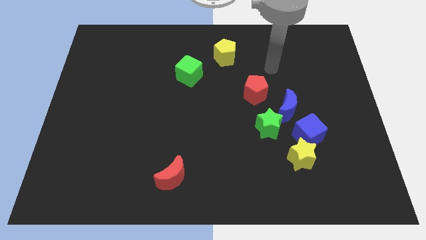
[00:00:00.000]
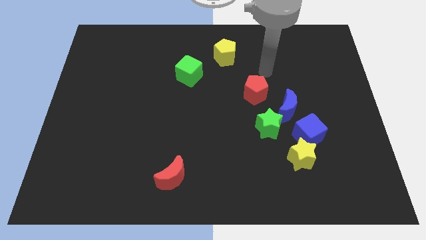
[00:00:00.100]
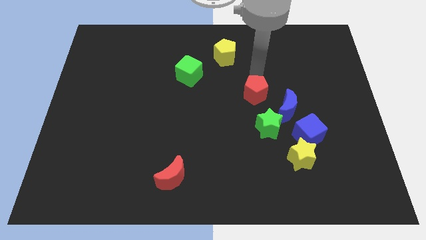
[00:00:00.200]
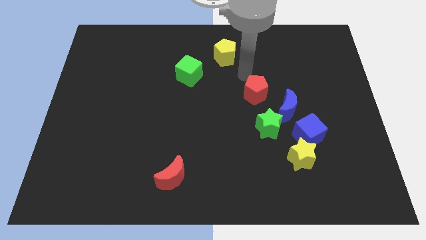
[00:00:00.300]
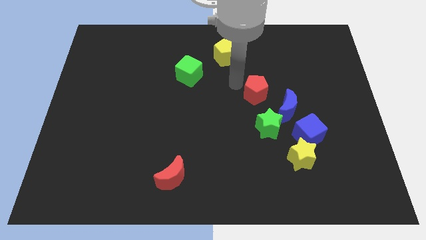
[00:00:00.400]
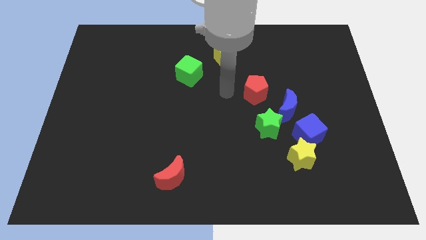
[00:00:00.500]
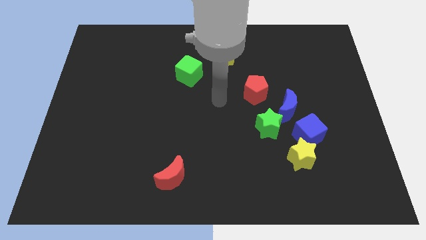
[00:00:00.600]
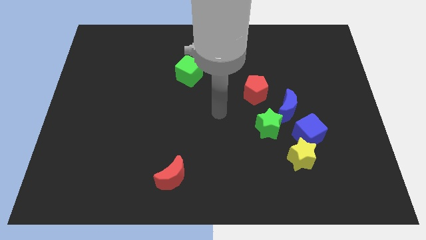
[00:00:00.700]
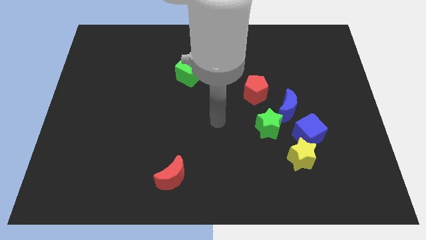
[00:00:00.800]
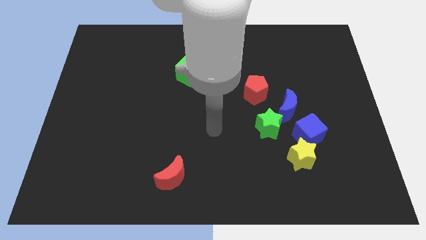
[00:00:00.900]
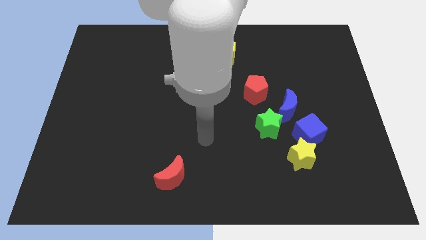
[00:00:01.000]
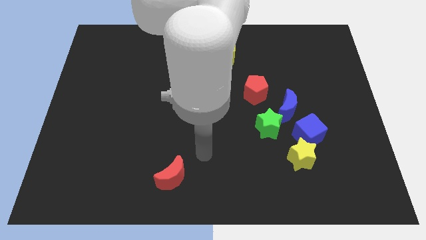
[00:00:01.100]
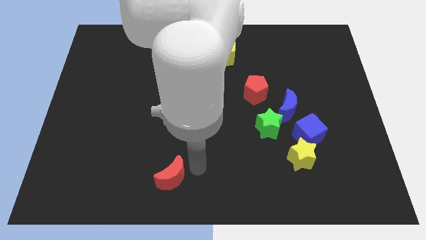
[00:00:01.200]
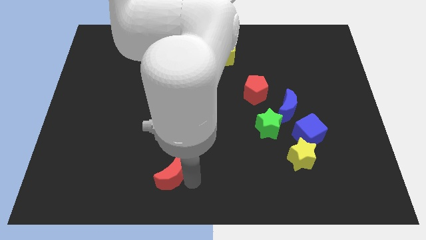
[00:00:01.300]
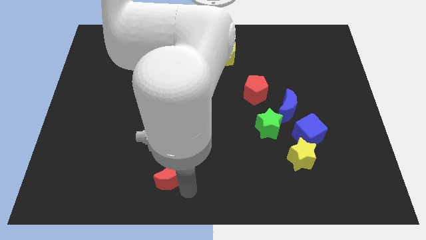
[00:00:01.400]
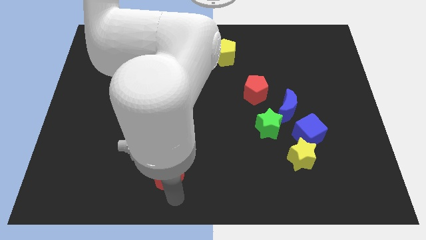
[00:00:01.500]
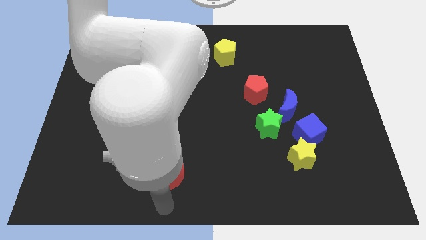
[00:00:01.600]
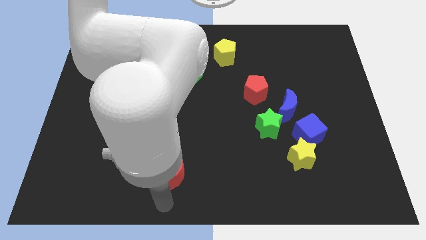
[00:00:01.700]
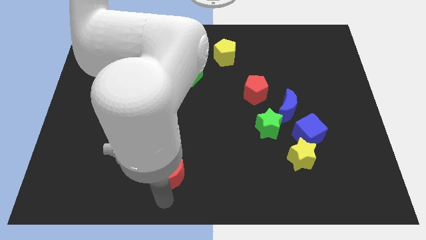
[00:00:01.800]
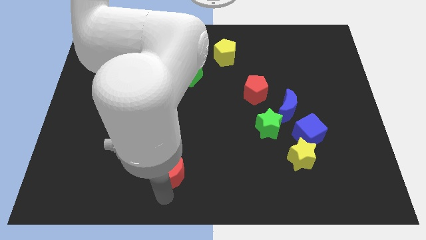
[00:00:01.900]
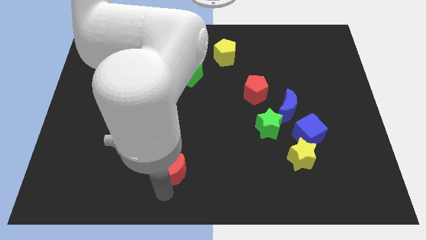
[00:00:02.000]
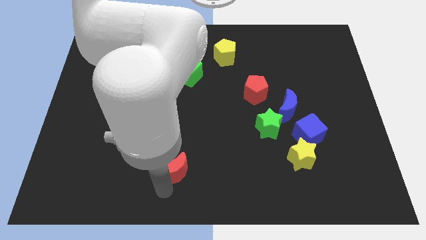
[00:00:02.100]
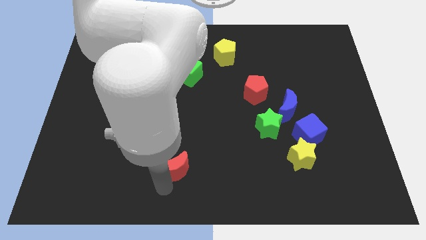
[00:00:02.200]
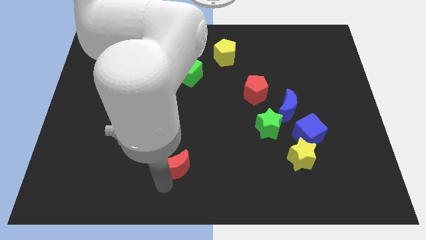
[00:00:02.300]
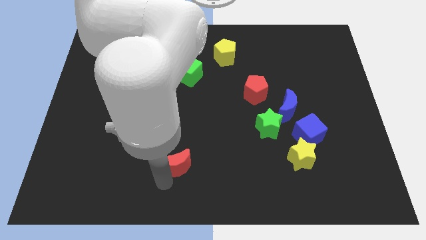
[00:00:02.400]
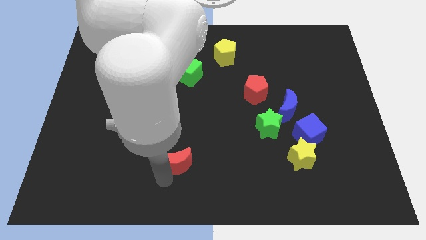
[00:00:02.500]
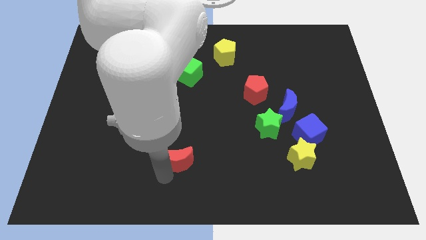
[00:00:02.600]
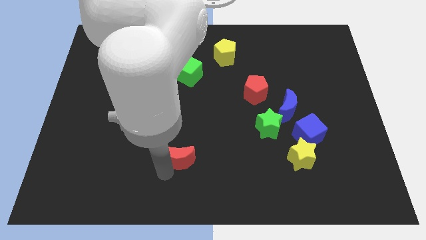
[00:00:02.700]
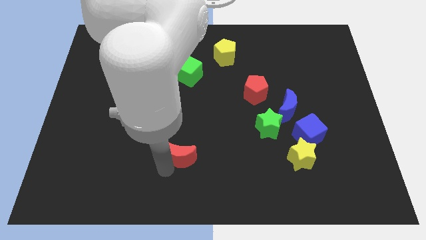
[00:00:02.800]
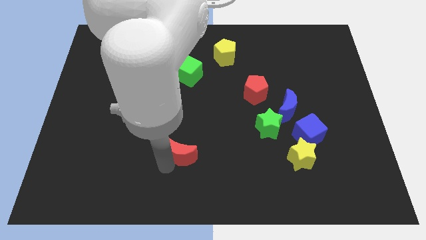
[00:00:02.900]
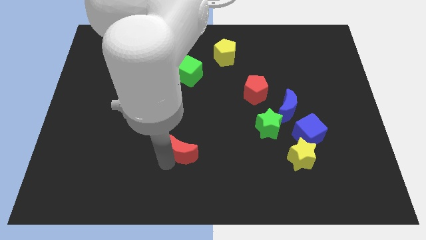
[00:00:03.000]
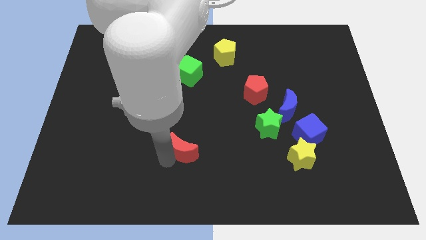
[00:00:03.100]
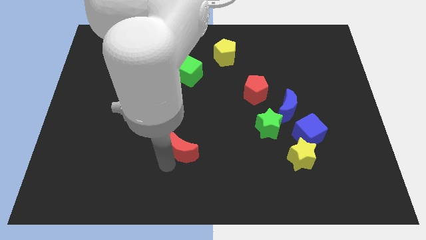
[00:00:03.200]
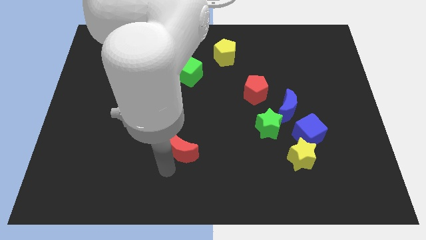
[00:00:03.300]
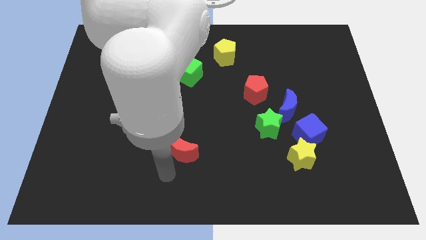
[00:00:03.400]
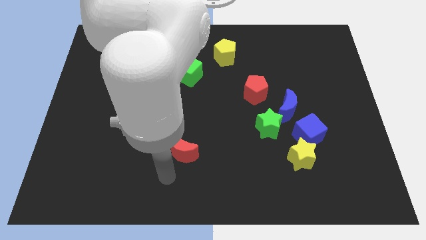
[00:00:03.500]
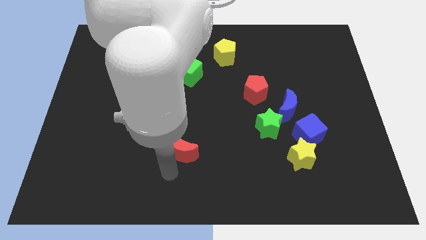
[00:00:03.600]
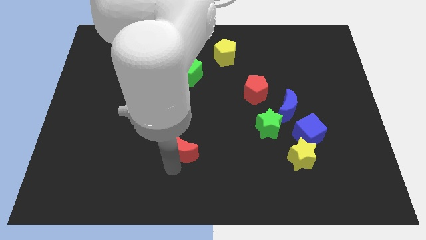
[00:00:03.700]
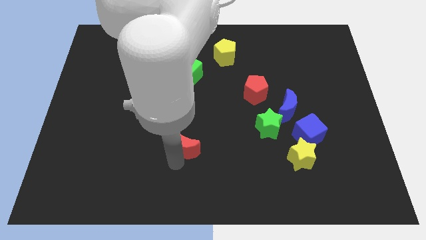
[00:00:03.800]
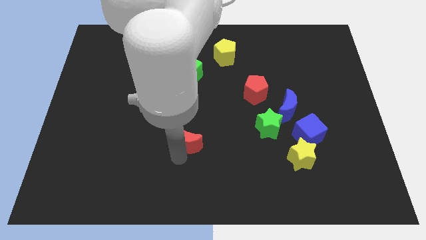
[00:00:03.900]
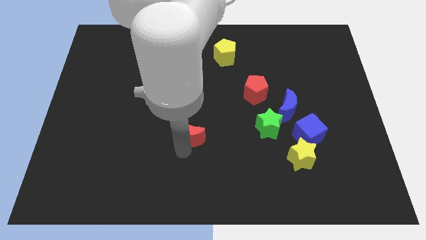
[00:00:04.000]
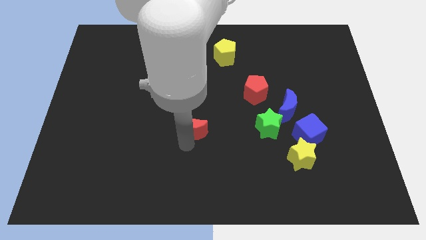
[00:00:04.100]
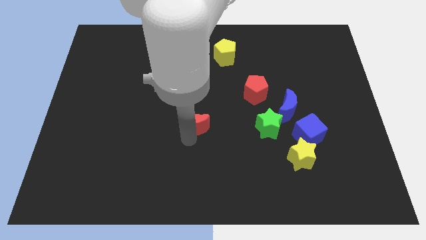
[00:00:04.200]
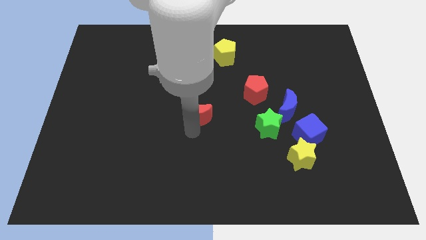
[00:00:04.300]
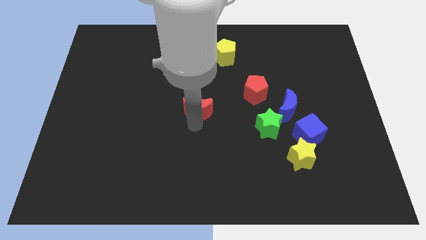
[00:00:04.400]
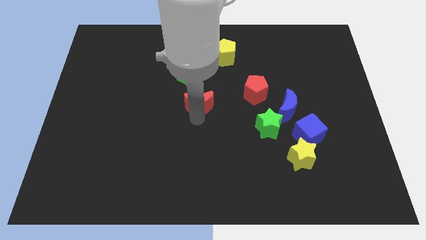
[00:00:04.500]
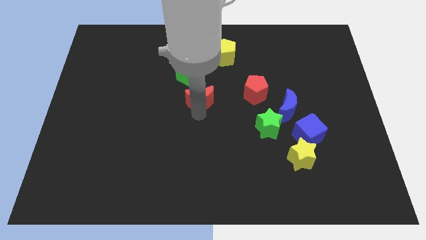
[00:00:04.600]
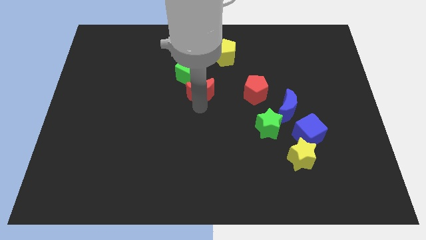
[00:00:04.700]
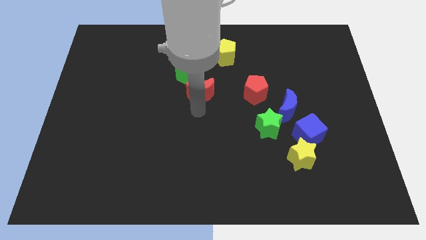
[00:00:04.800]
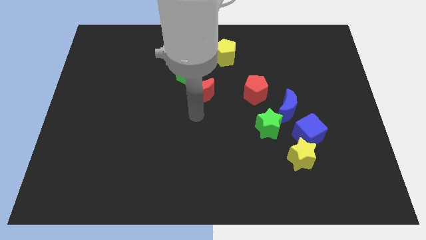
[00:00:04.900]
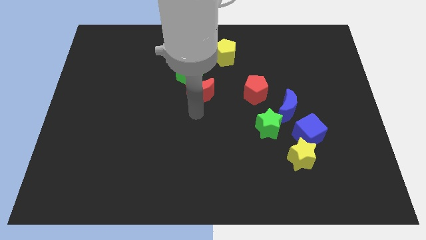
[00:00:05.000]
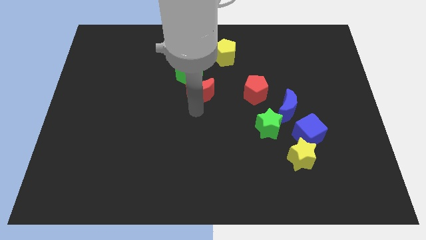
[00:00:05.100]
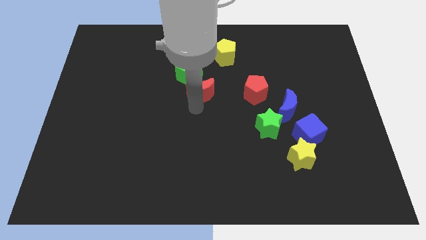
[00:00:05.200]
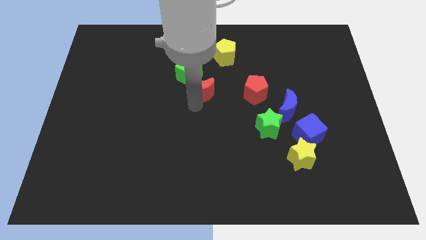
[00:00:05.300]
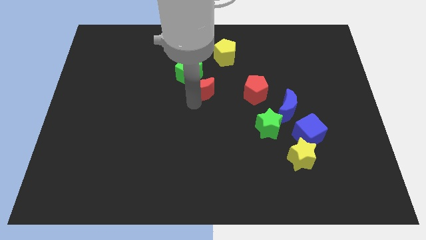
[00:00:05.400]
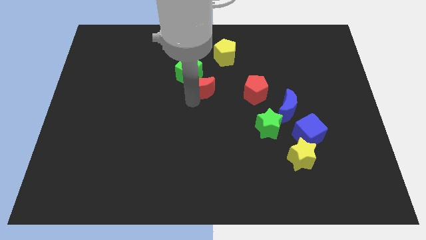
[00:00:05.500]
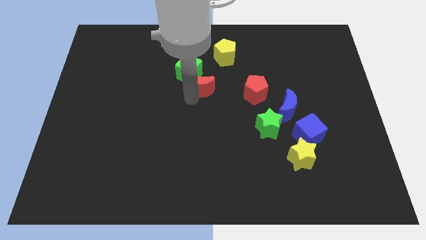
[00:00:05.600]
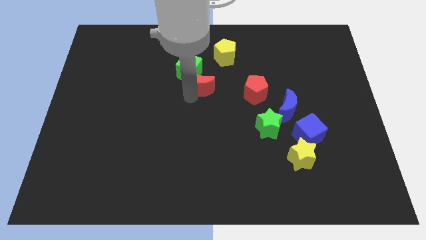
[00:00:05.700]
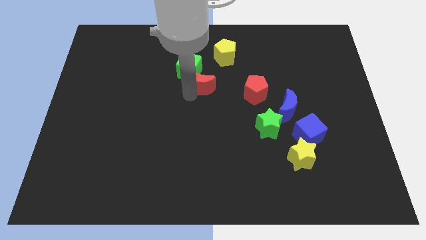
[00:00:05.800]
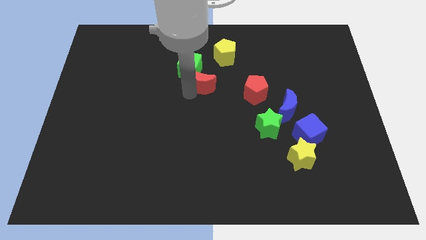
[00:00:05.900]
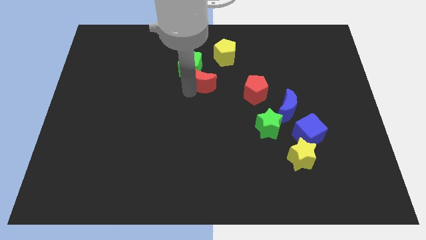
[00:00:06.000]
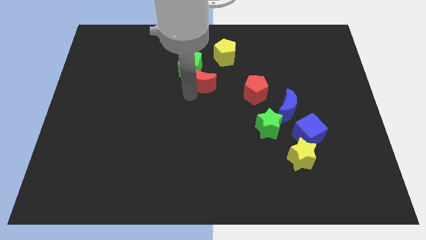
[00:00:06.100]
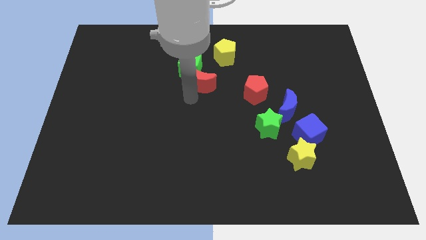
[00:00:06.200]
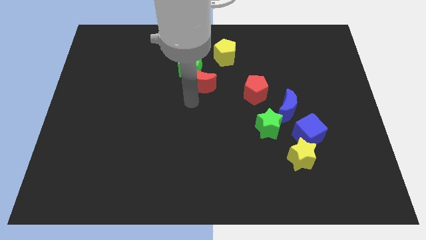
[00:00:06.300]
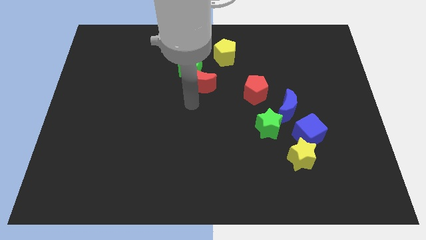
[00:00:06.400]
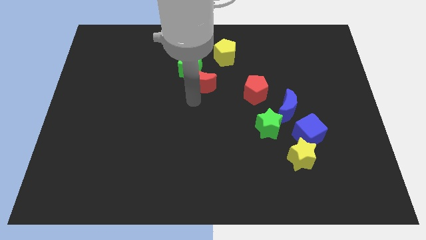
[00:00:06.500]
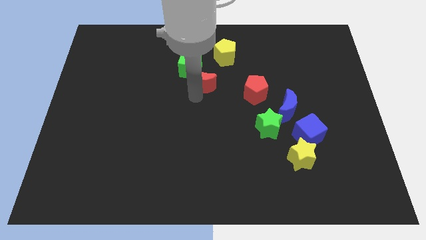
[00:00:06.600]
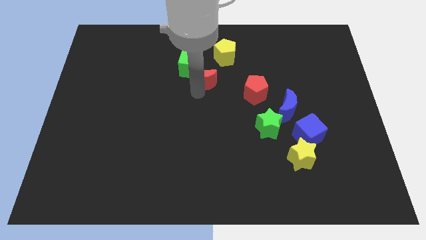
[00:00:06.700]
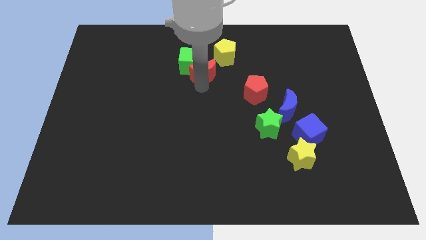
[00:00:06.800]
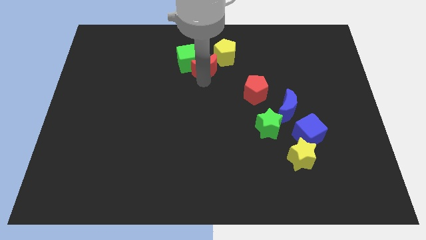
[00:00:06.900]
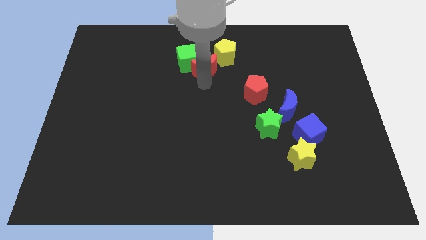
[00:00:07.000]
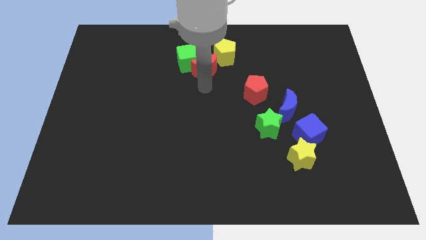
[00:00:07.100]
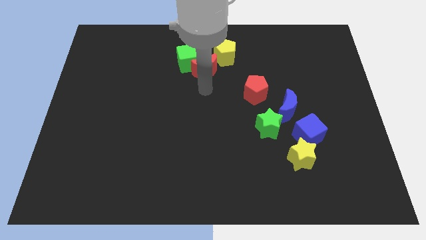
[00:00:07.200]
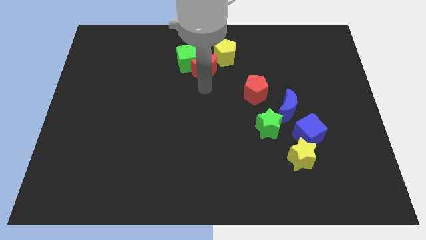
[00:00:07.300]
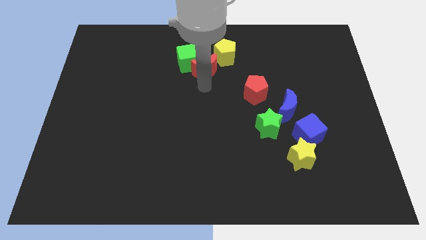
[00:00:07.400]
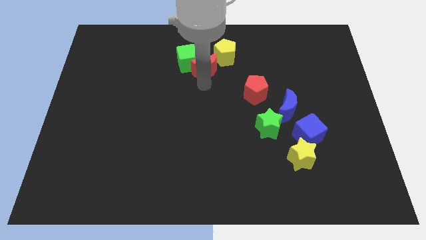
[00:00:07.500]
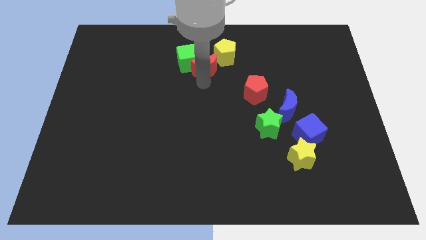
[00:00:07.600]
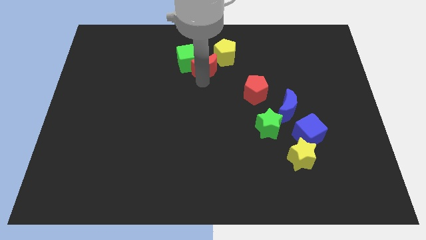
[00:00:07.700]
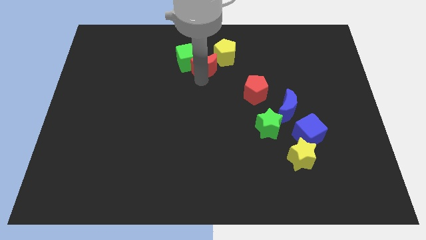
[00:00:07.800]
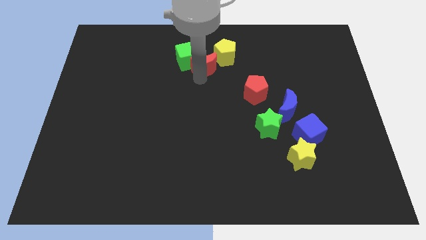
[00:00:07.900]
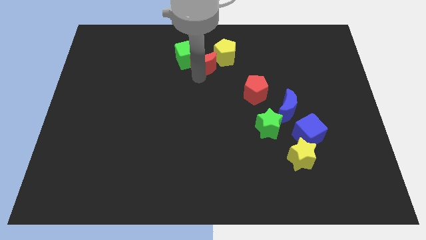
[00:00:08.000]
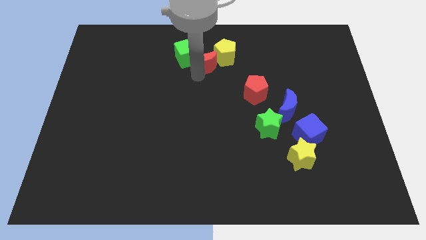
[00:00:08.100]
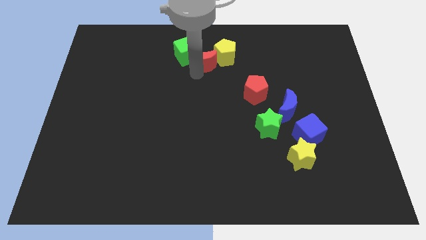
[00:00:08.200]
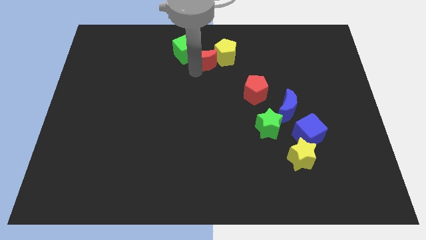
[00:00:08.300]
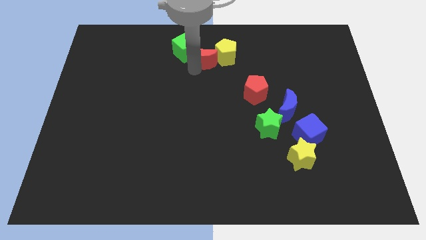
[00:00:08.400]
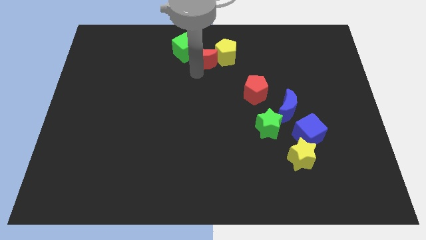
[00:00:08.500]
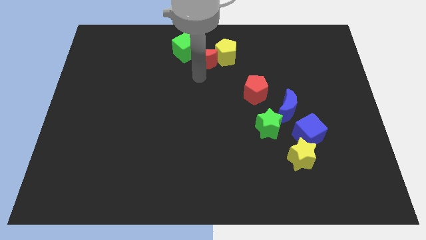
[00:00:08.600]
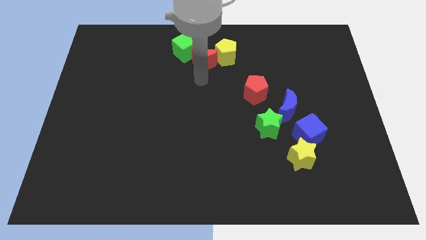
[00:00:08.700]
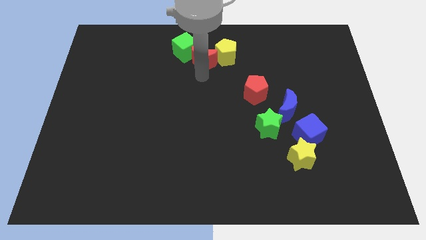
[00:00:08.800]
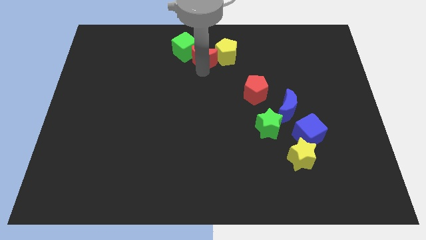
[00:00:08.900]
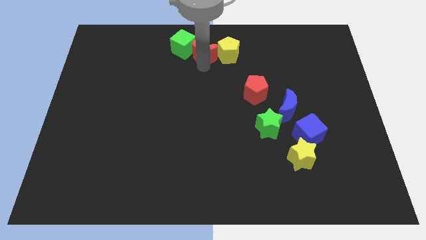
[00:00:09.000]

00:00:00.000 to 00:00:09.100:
move the red moon to the top side
